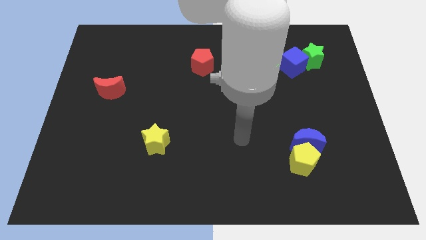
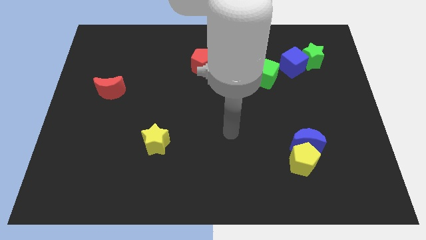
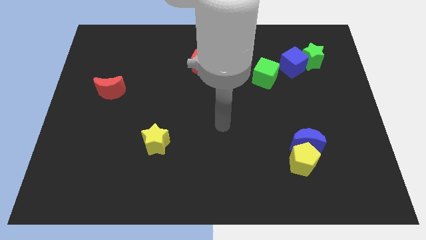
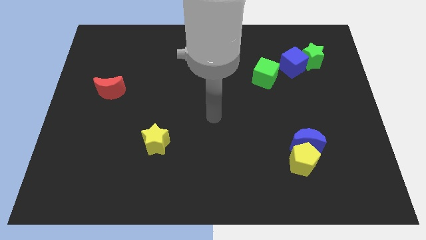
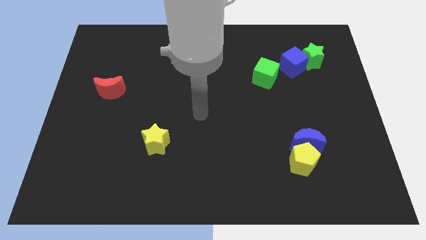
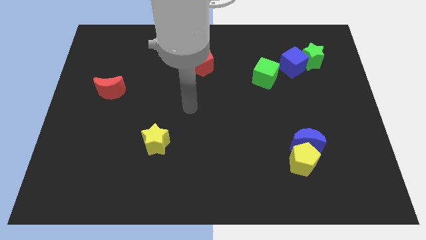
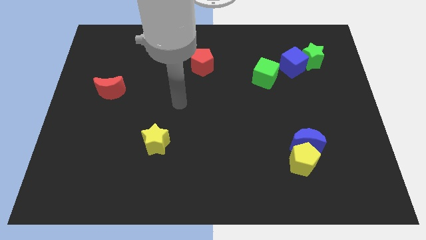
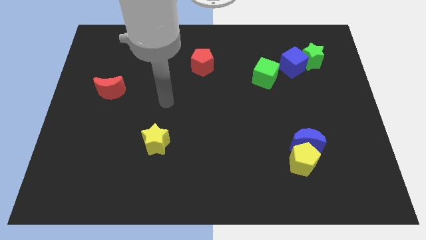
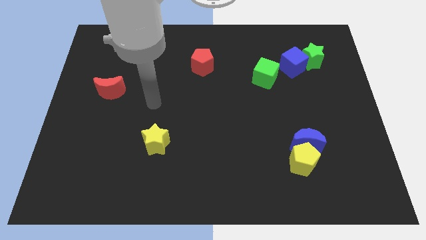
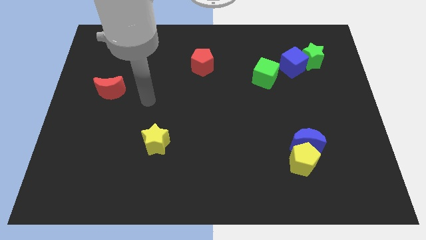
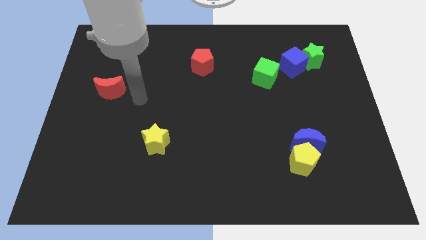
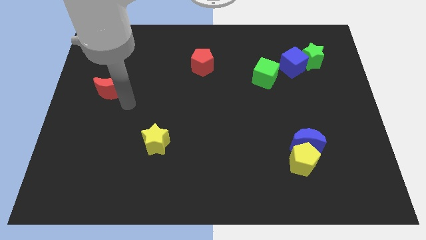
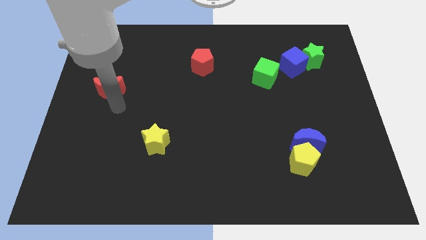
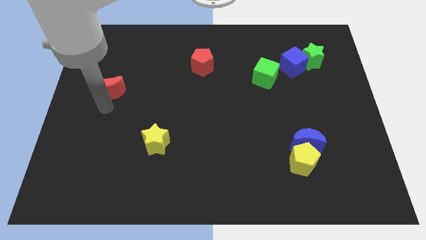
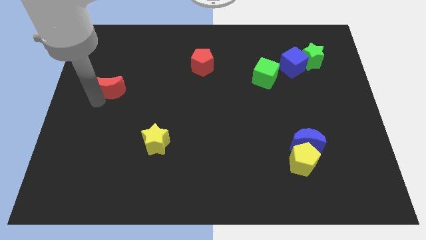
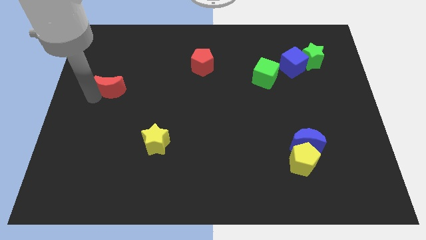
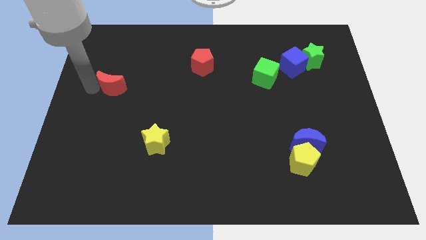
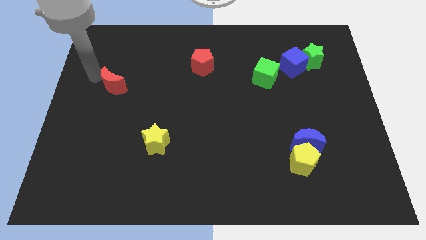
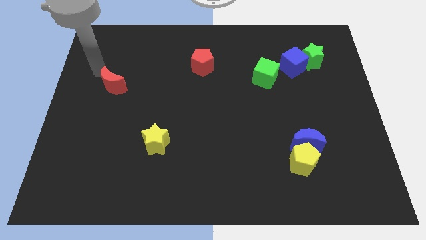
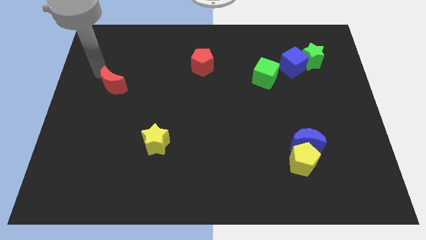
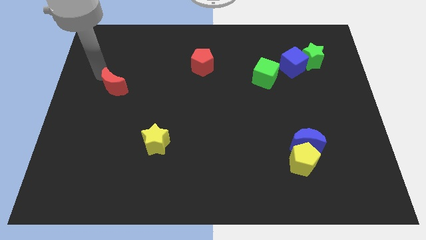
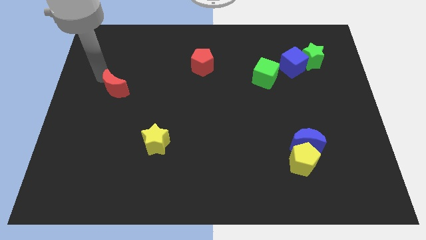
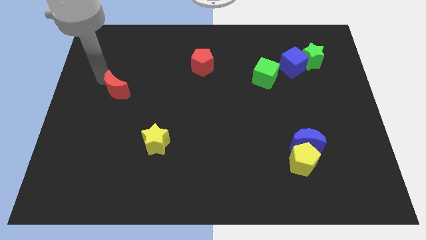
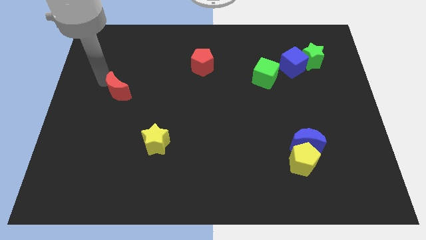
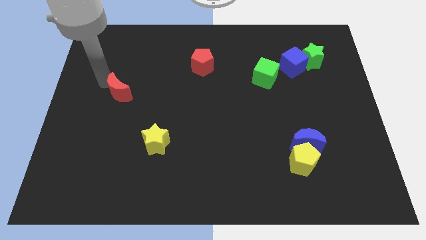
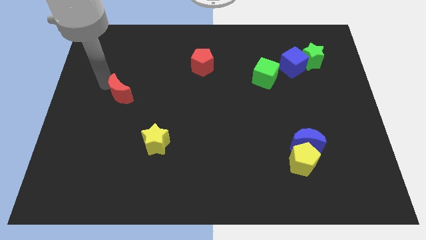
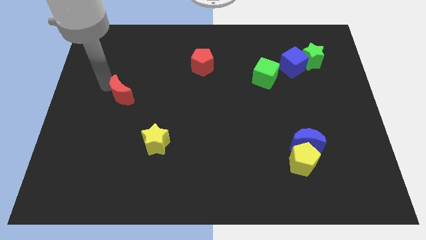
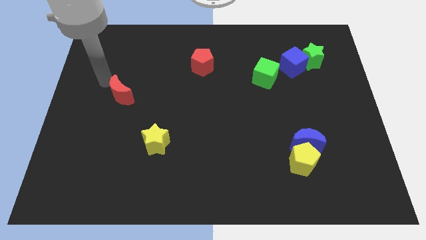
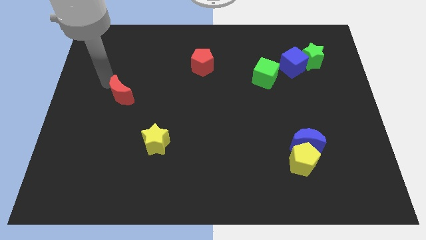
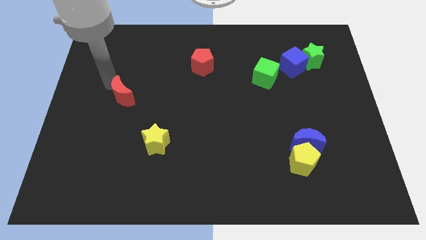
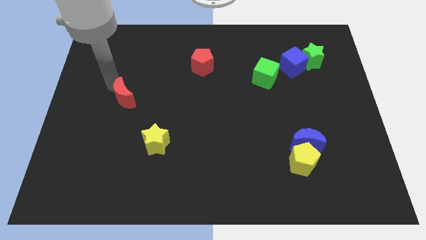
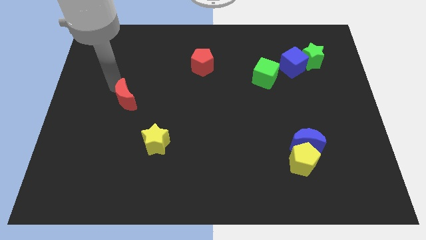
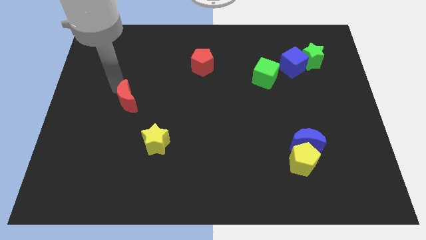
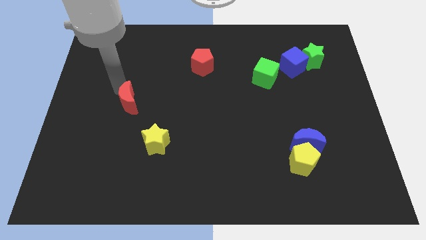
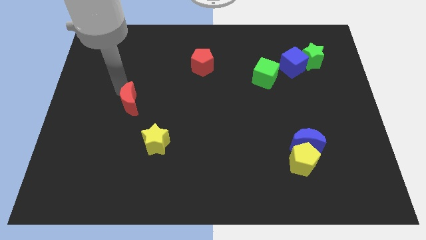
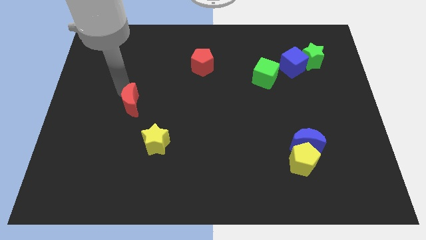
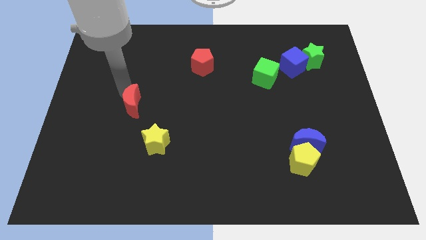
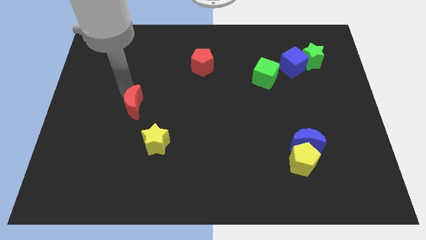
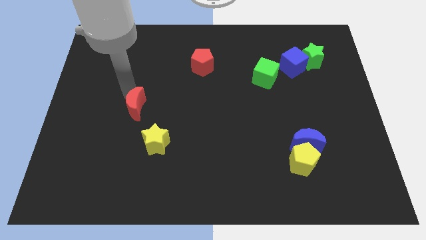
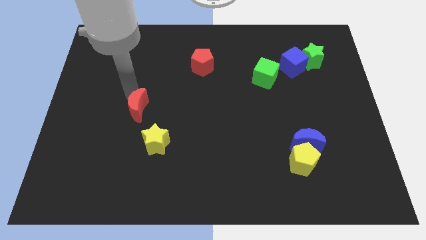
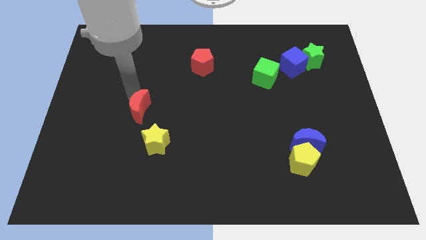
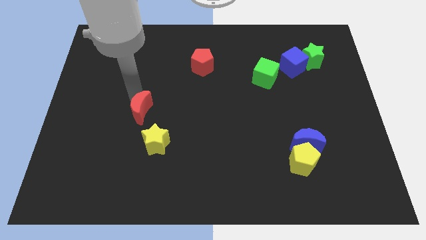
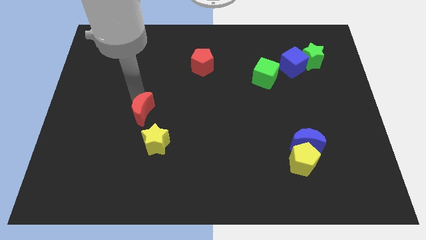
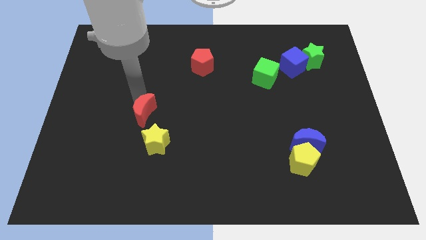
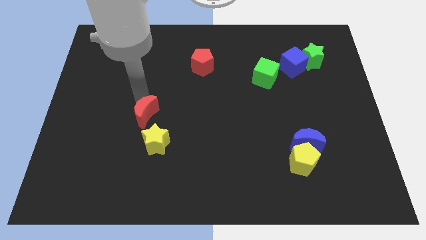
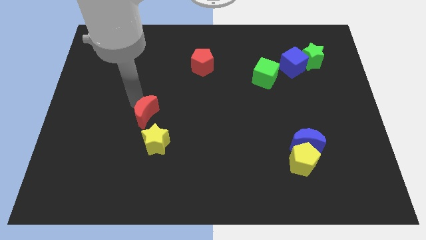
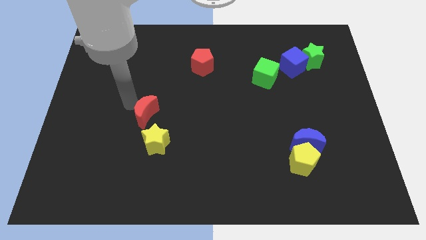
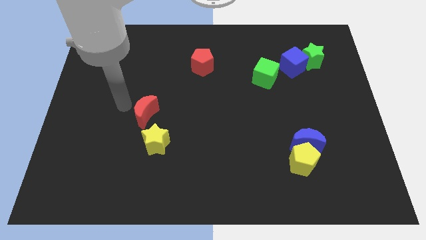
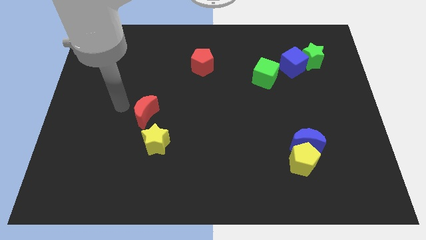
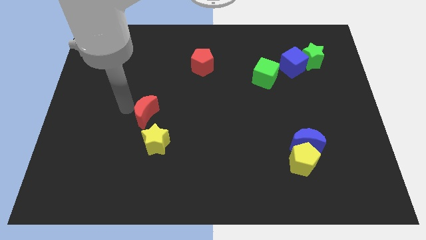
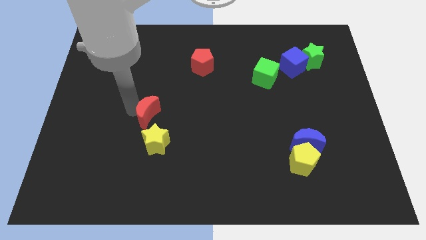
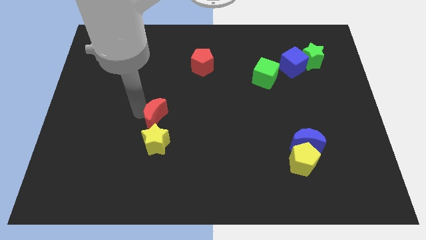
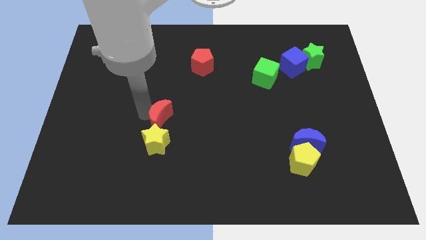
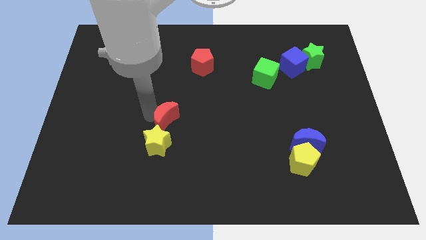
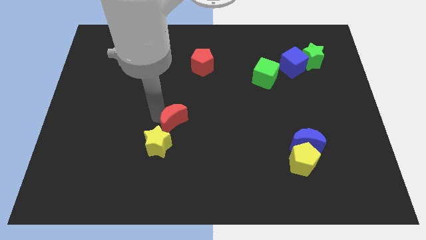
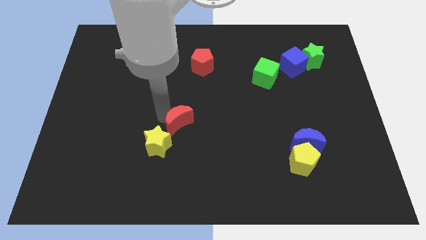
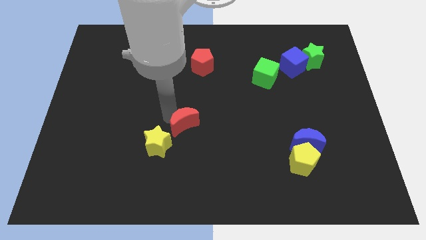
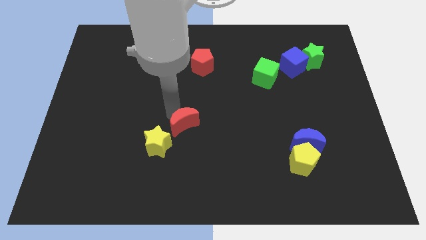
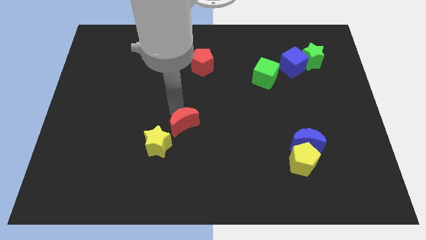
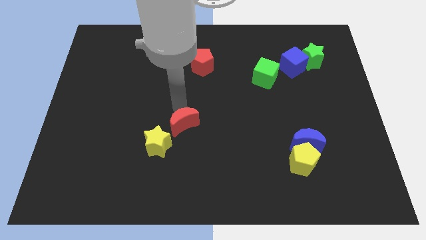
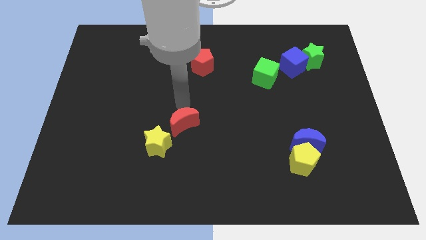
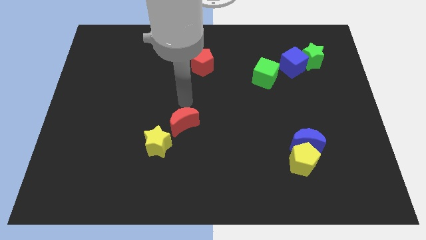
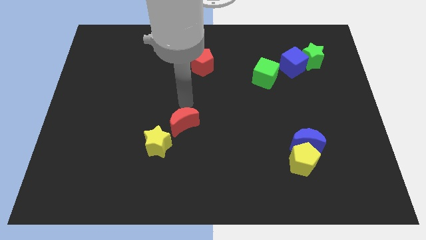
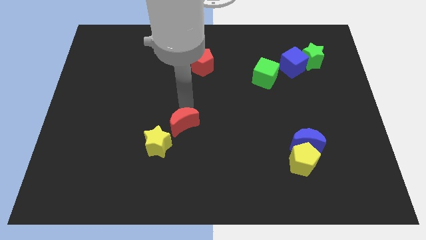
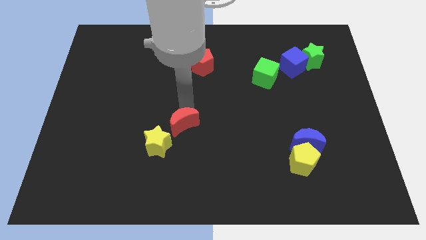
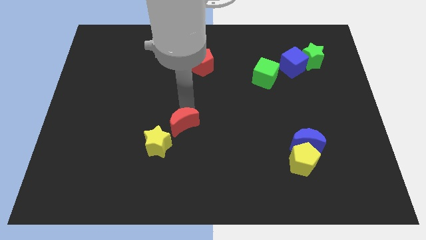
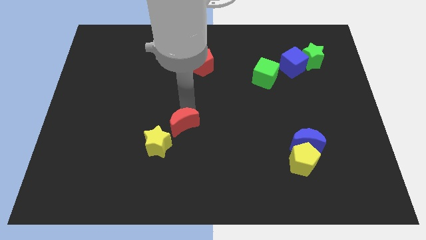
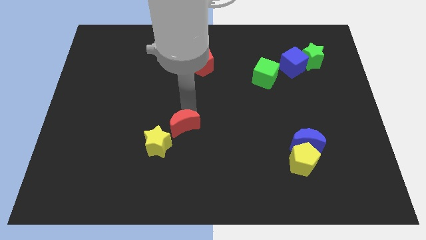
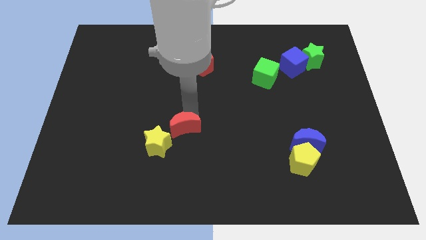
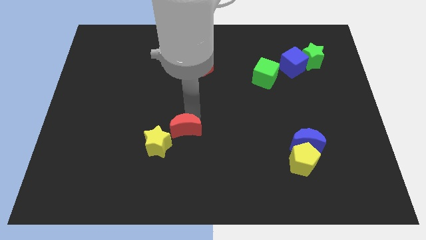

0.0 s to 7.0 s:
slide the red moon downwards and then to the right

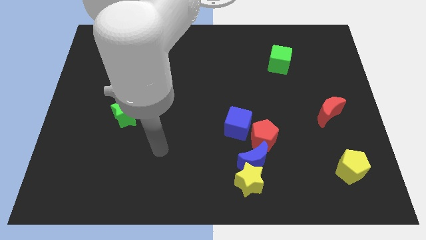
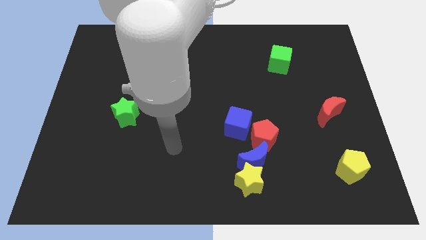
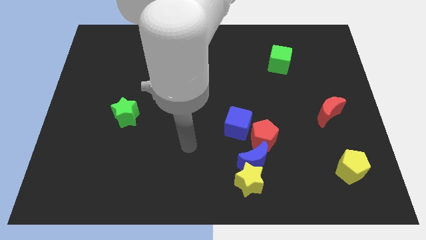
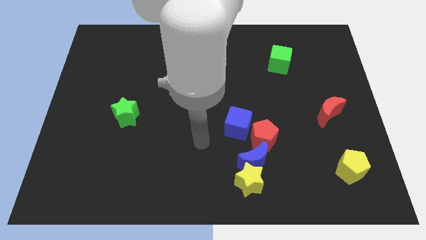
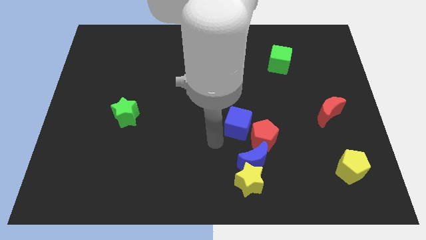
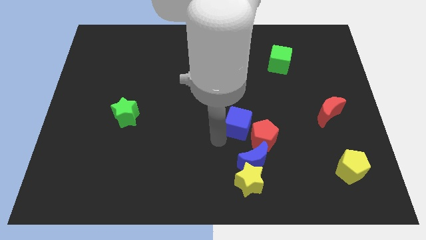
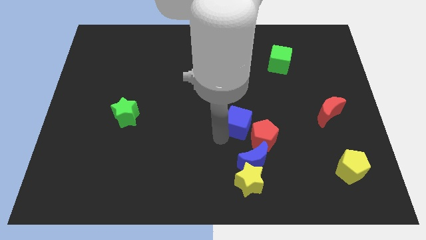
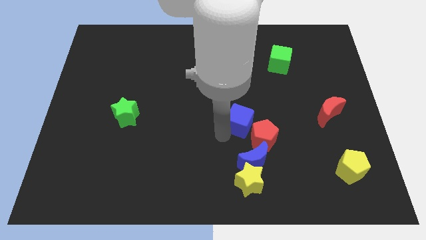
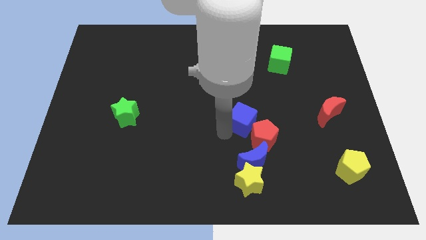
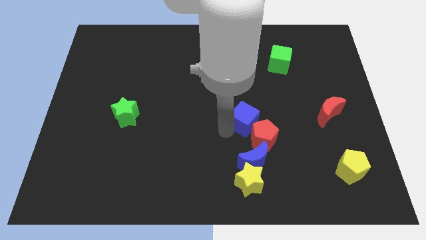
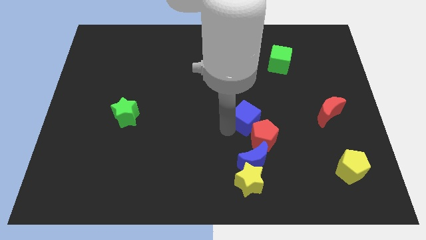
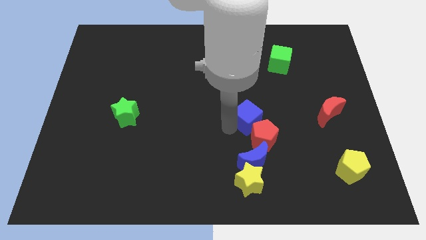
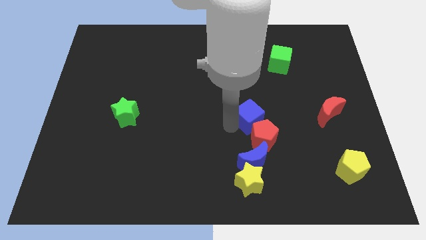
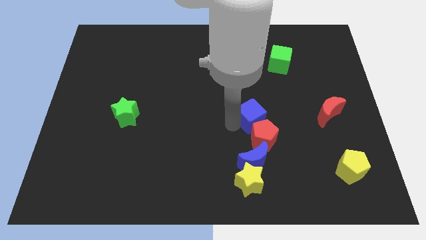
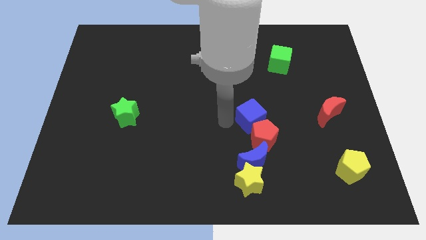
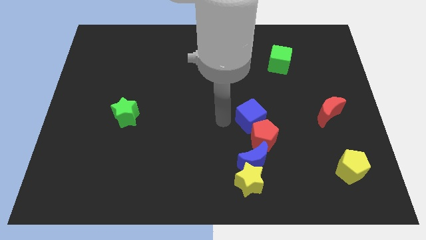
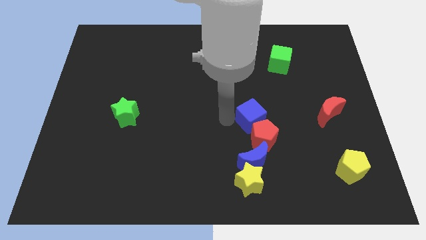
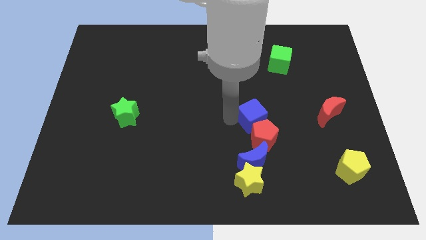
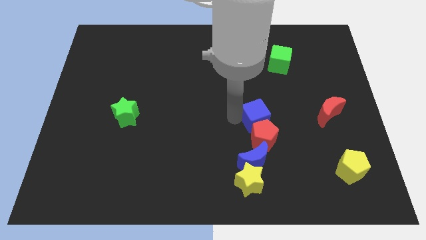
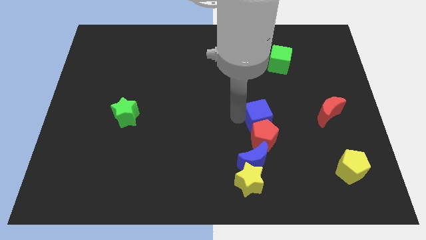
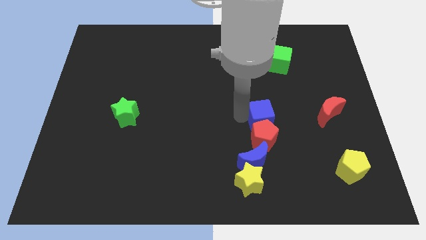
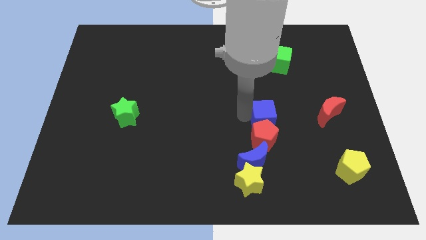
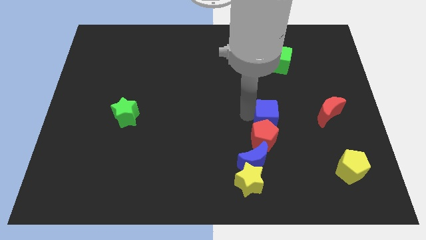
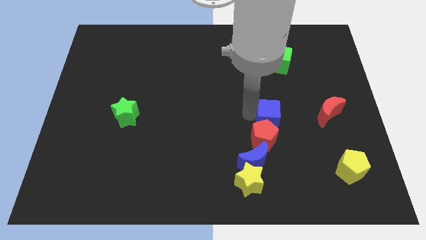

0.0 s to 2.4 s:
move the blue cube slightly to the right
